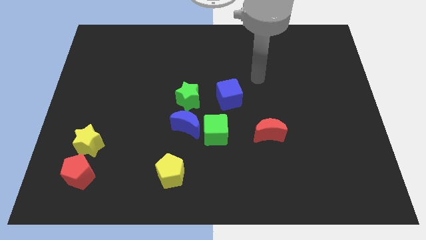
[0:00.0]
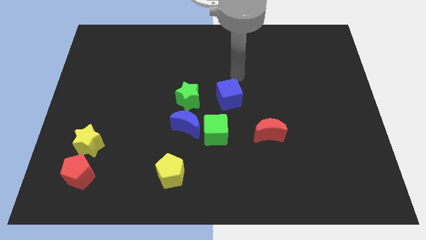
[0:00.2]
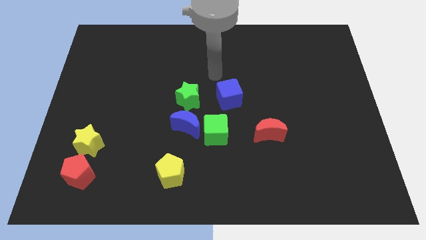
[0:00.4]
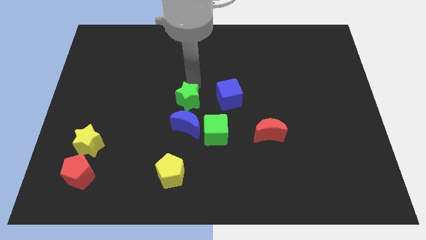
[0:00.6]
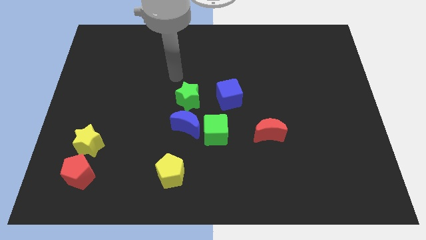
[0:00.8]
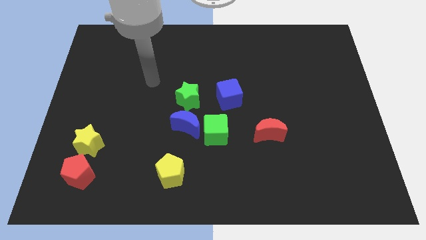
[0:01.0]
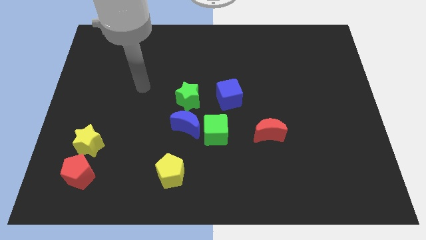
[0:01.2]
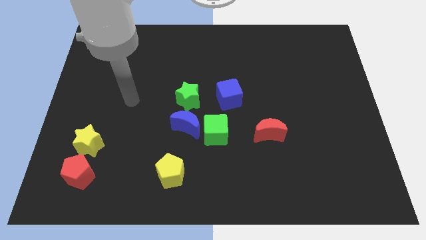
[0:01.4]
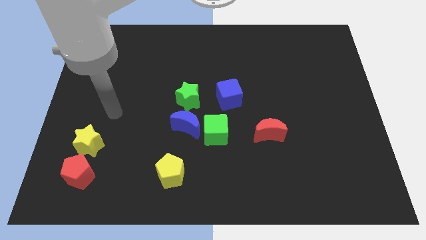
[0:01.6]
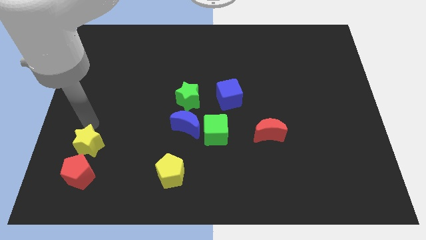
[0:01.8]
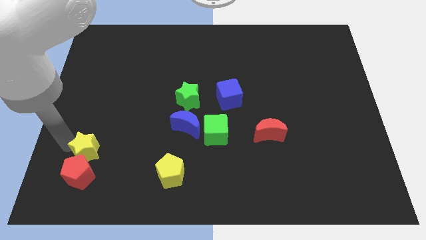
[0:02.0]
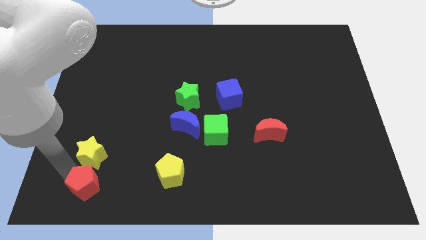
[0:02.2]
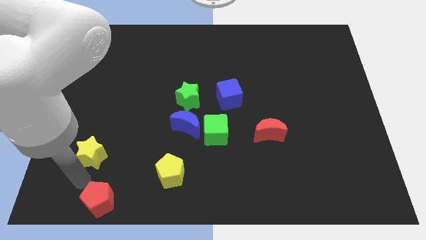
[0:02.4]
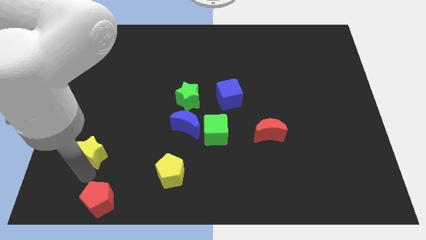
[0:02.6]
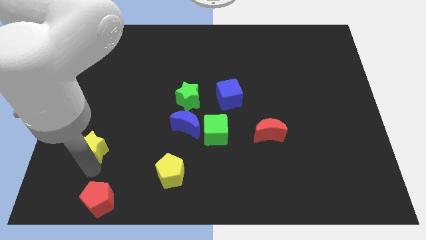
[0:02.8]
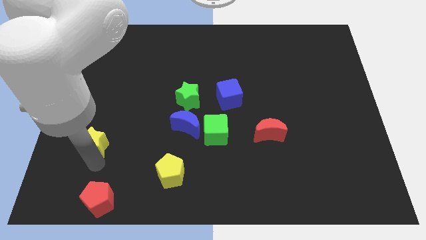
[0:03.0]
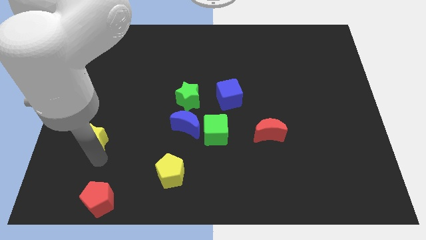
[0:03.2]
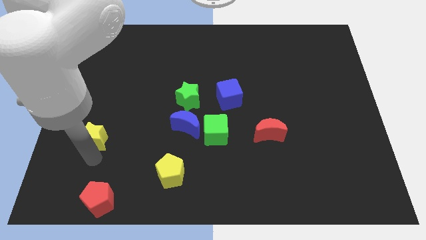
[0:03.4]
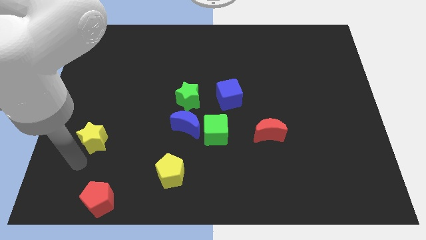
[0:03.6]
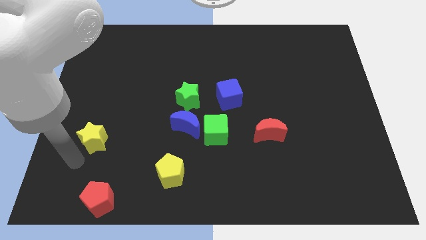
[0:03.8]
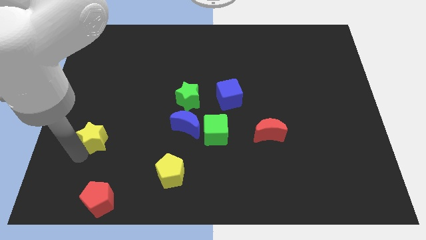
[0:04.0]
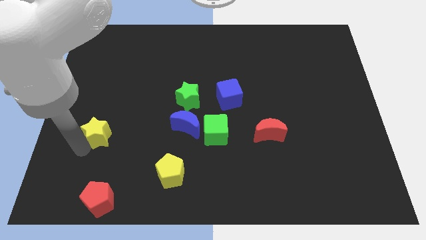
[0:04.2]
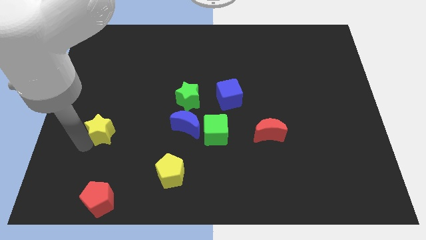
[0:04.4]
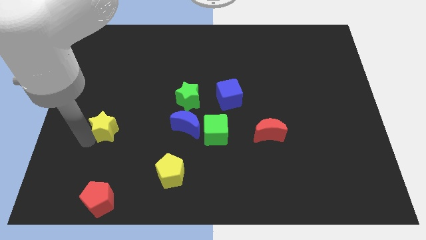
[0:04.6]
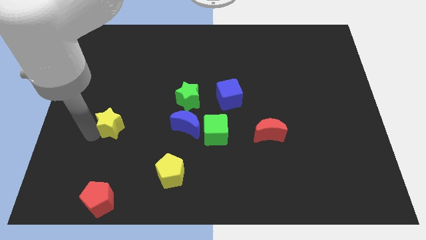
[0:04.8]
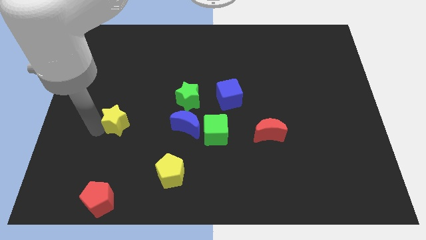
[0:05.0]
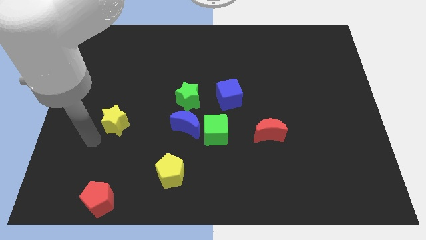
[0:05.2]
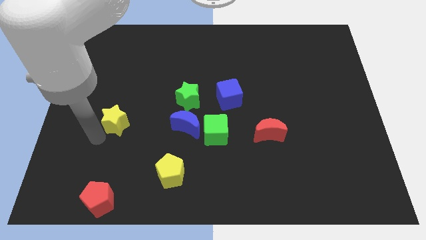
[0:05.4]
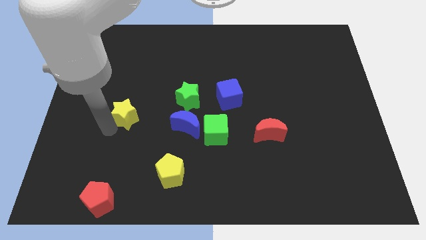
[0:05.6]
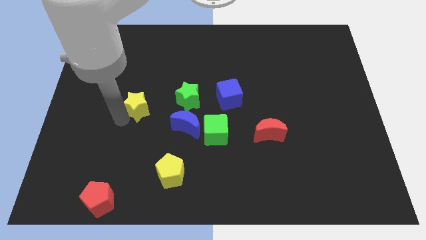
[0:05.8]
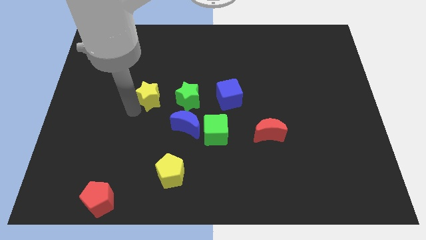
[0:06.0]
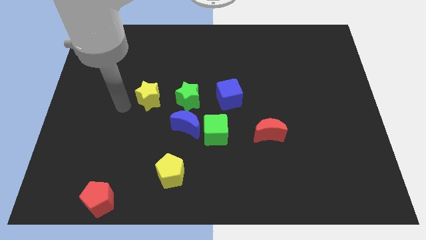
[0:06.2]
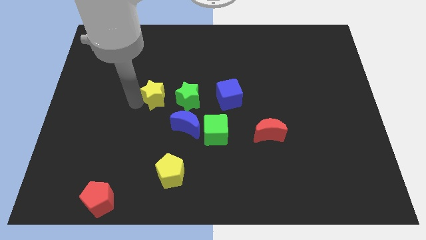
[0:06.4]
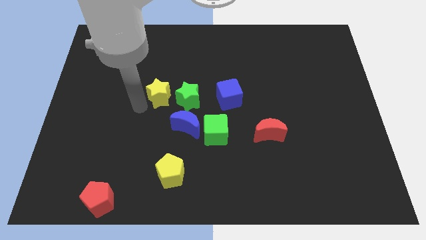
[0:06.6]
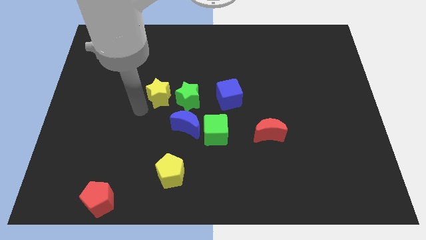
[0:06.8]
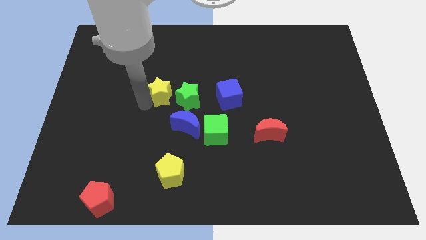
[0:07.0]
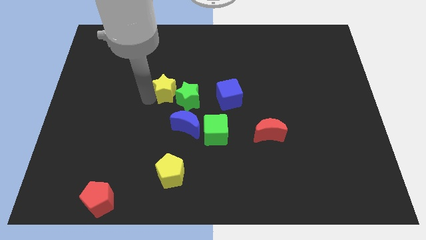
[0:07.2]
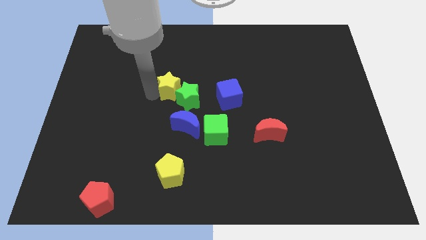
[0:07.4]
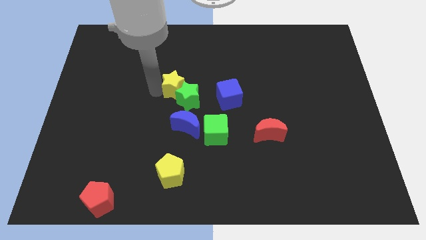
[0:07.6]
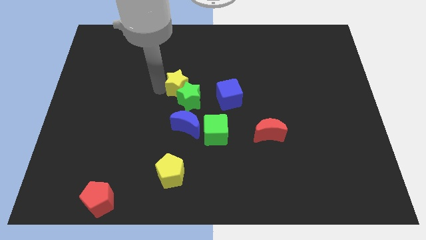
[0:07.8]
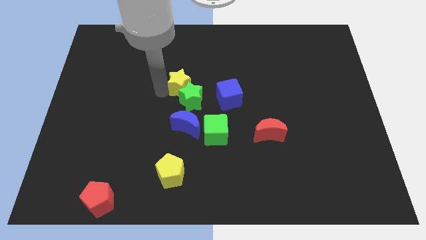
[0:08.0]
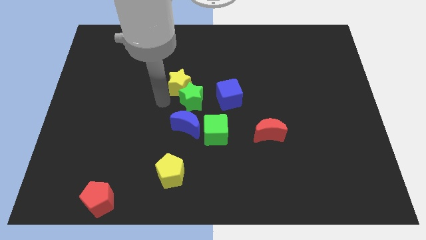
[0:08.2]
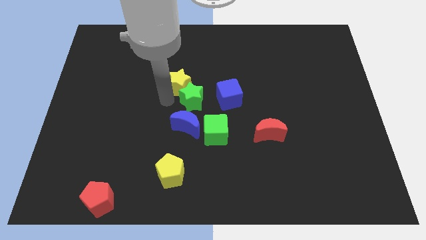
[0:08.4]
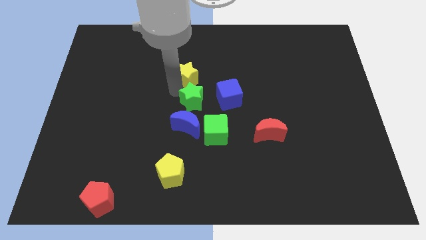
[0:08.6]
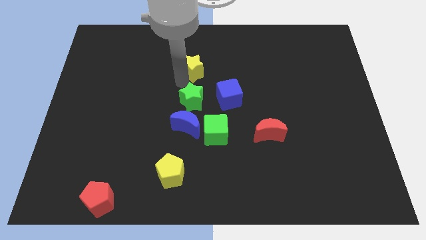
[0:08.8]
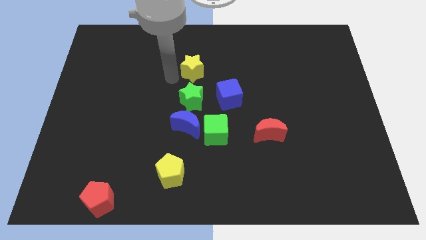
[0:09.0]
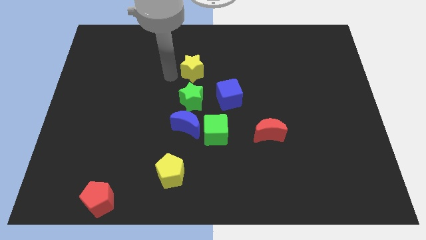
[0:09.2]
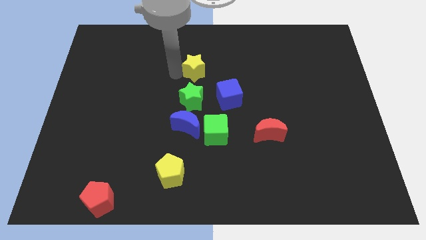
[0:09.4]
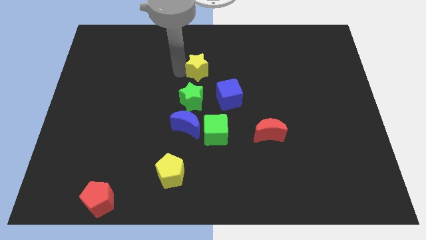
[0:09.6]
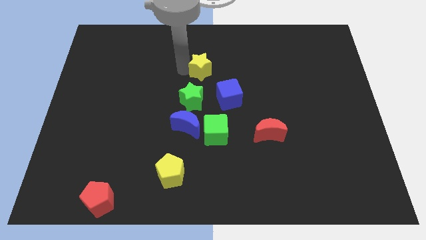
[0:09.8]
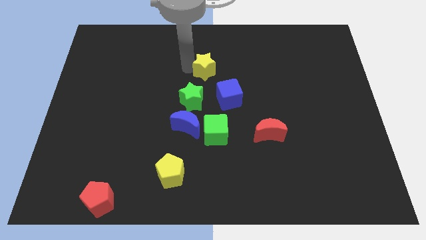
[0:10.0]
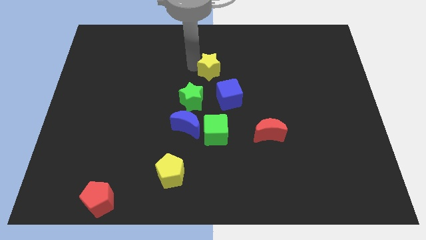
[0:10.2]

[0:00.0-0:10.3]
push the yellow star above the blue cube

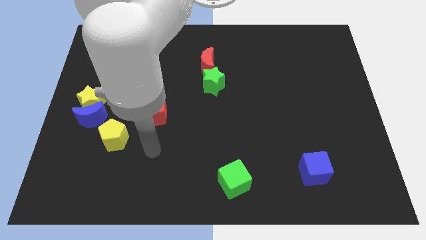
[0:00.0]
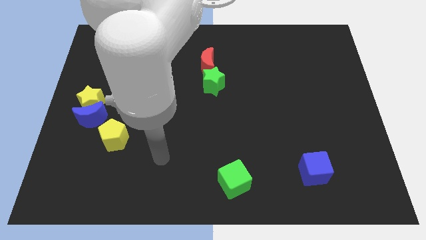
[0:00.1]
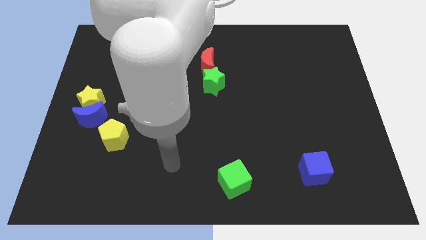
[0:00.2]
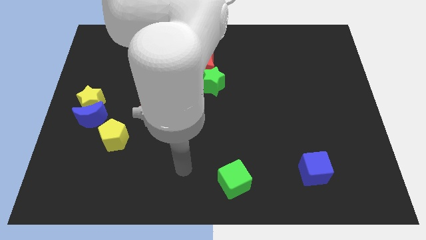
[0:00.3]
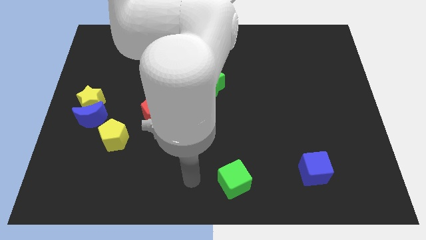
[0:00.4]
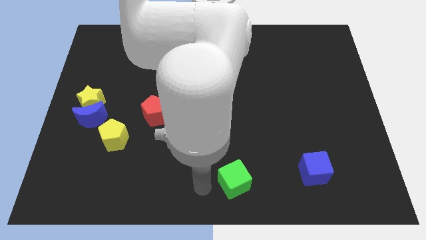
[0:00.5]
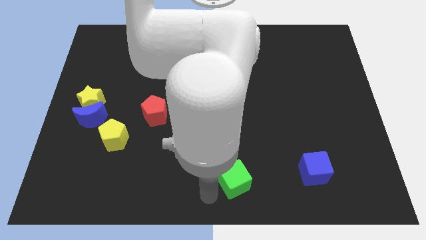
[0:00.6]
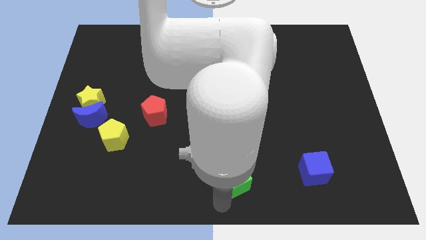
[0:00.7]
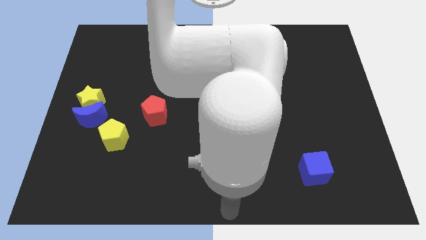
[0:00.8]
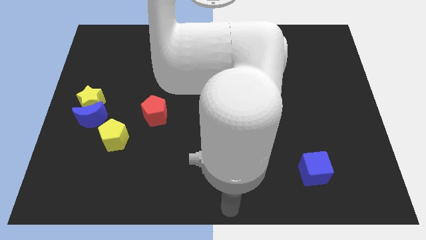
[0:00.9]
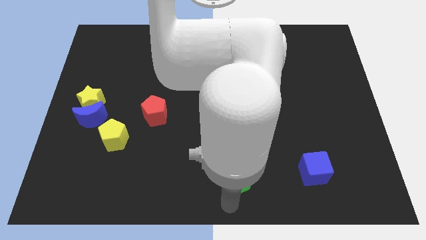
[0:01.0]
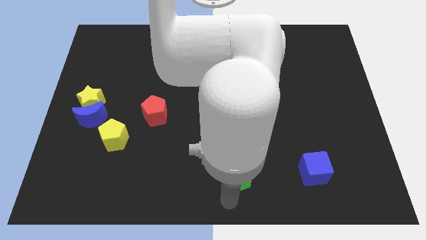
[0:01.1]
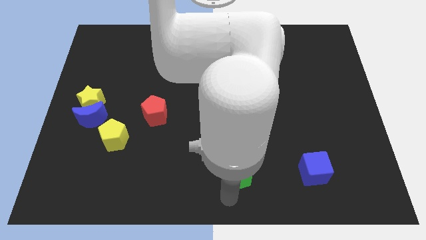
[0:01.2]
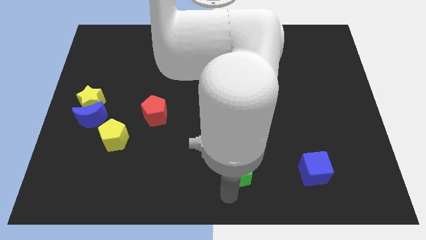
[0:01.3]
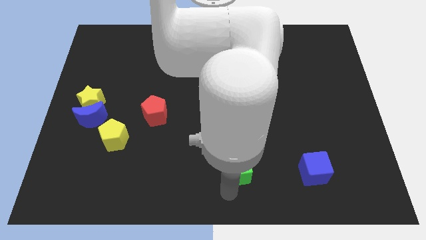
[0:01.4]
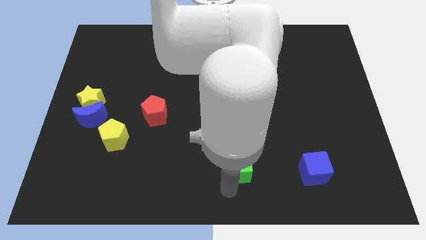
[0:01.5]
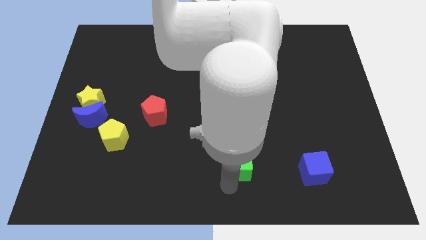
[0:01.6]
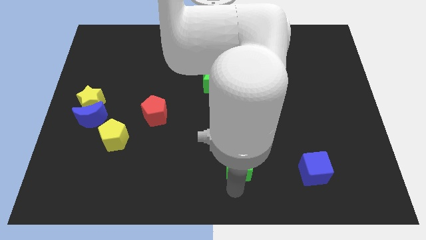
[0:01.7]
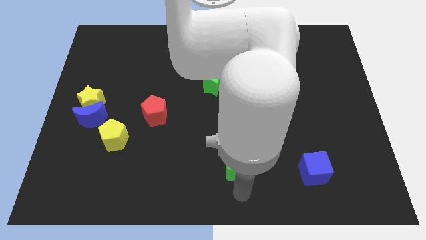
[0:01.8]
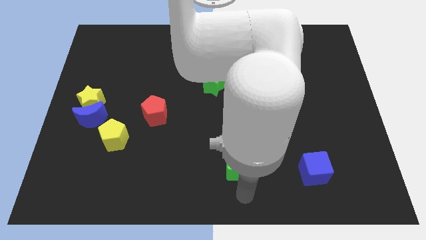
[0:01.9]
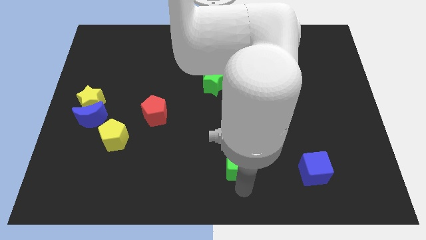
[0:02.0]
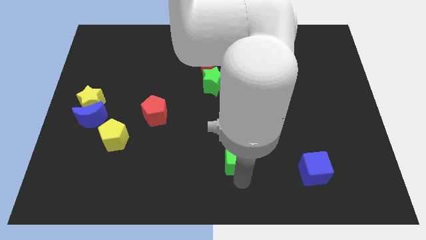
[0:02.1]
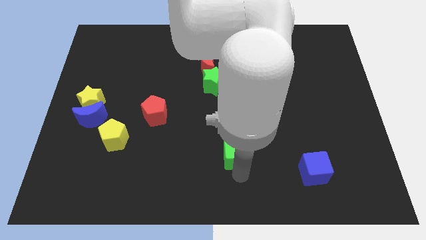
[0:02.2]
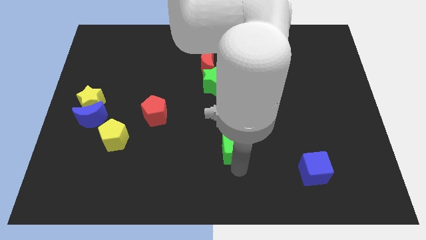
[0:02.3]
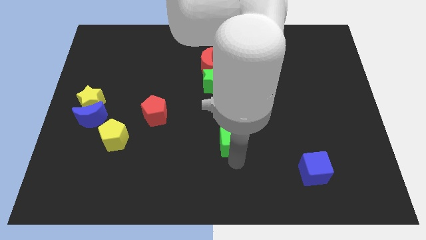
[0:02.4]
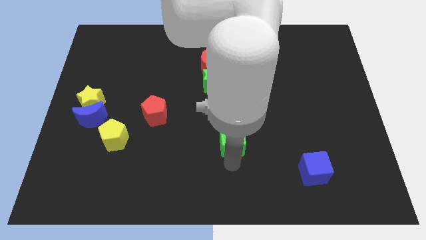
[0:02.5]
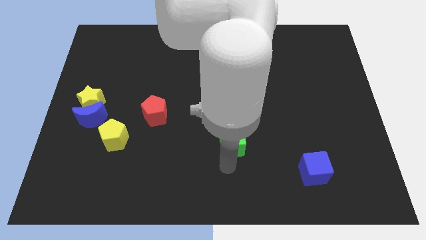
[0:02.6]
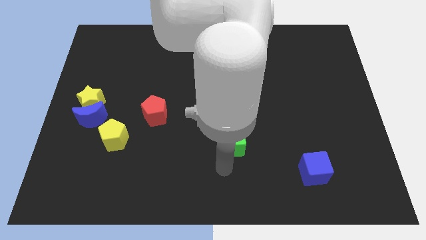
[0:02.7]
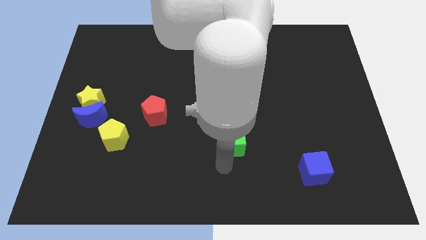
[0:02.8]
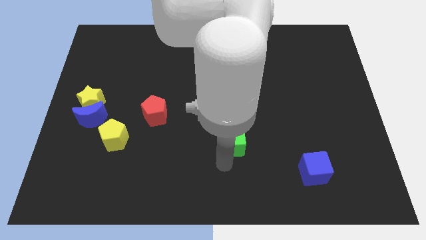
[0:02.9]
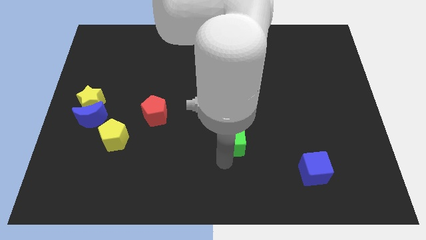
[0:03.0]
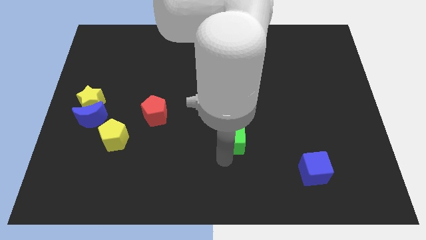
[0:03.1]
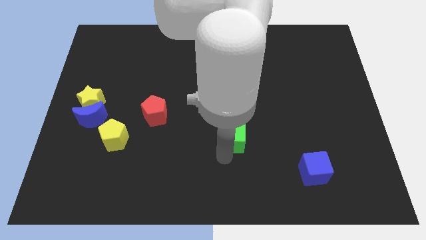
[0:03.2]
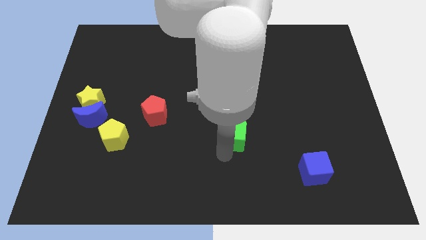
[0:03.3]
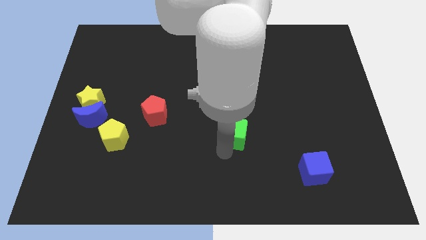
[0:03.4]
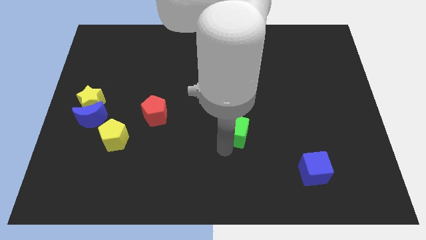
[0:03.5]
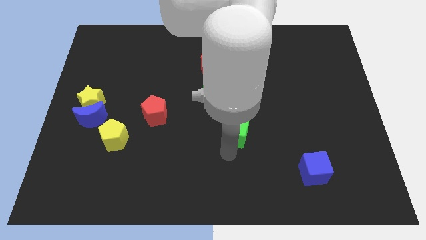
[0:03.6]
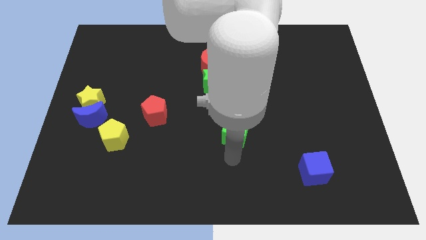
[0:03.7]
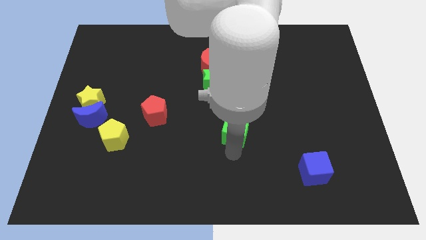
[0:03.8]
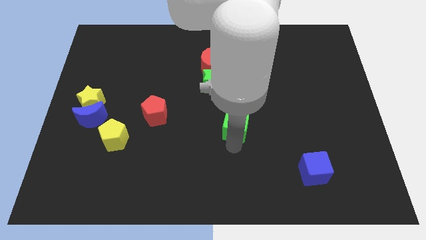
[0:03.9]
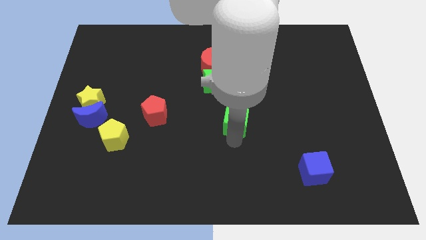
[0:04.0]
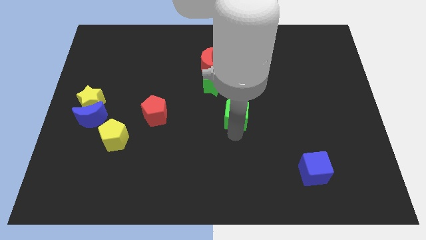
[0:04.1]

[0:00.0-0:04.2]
move the green cube to the bottom right of the green star
